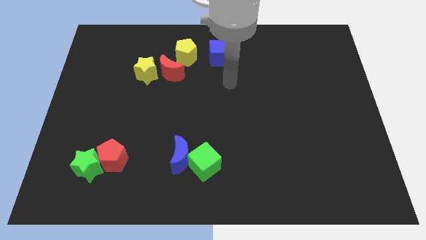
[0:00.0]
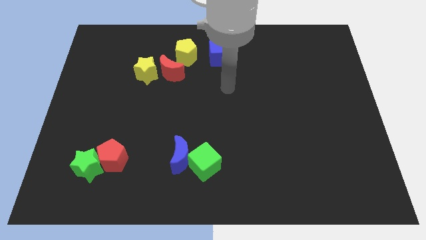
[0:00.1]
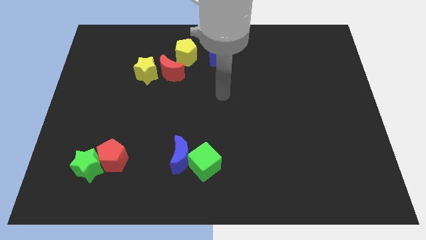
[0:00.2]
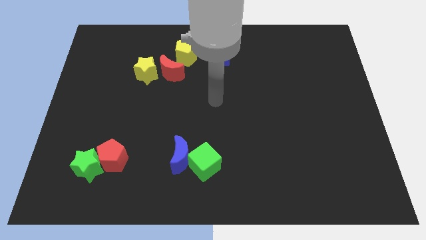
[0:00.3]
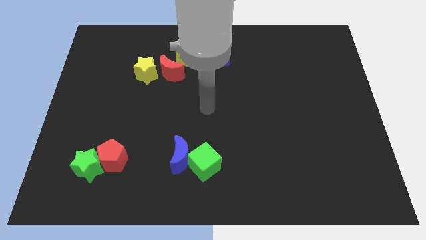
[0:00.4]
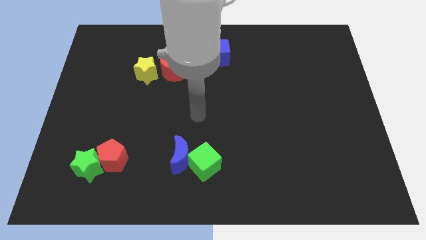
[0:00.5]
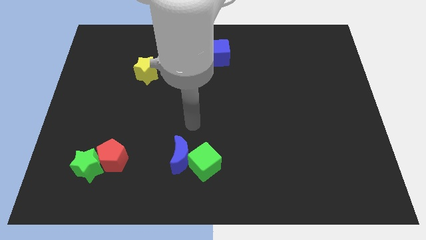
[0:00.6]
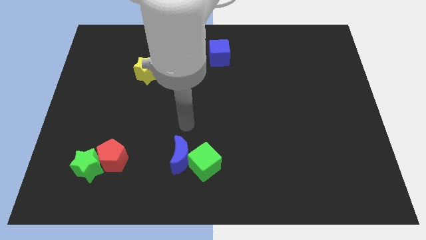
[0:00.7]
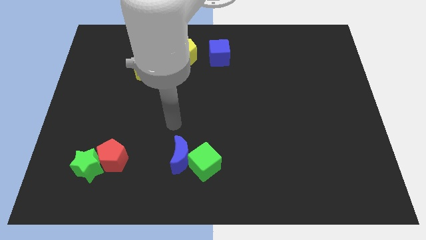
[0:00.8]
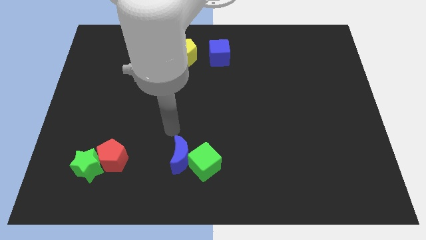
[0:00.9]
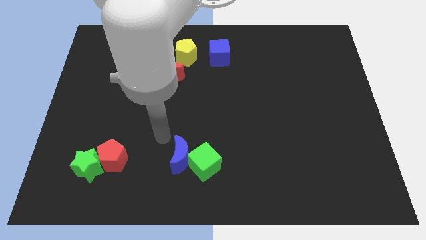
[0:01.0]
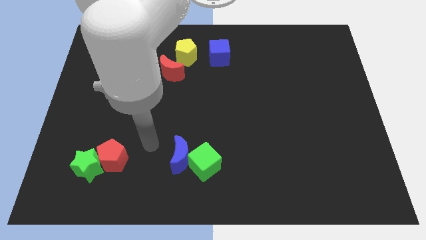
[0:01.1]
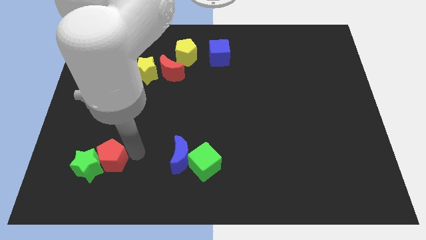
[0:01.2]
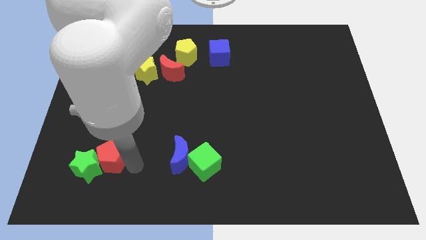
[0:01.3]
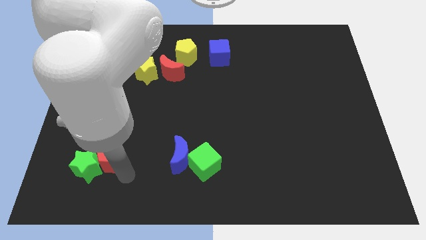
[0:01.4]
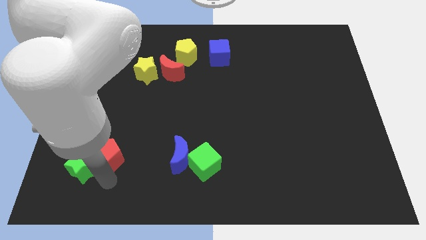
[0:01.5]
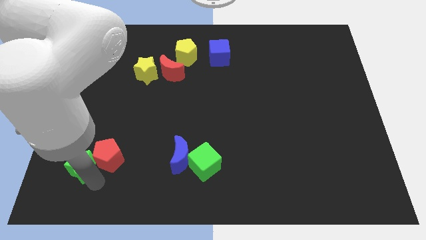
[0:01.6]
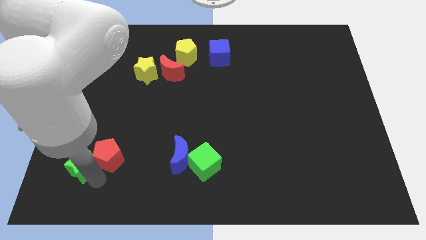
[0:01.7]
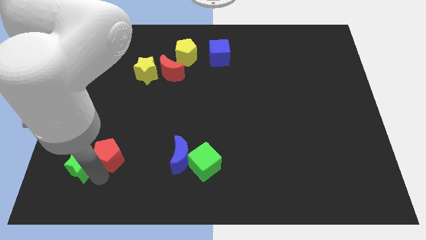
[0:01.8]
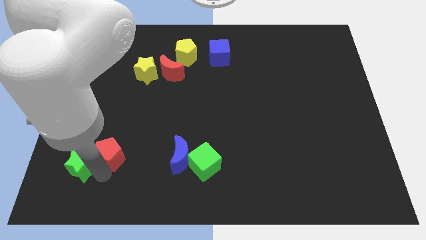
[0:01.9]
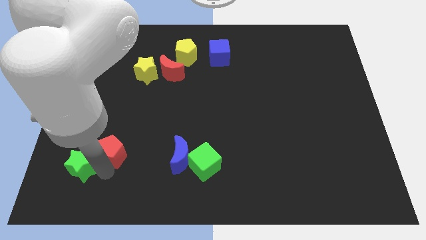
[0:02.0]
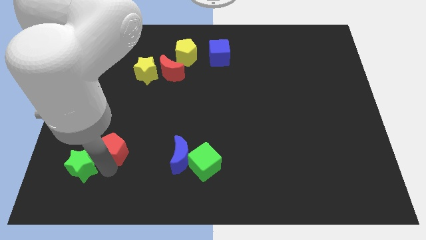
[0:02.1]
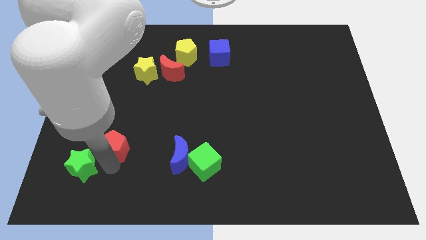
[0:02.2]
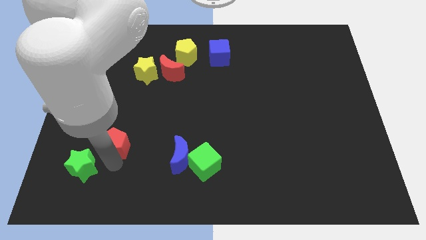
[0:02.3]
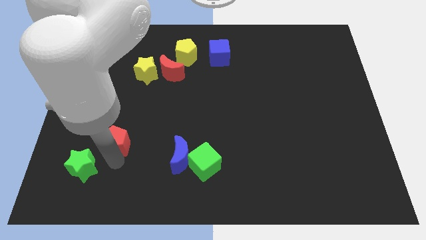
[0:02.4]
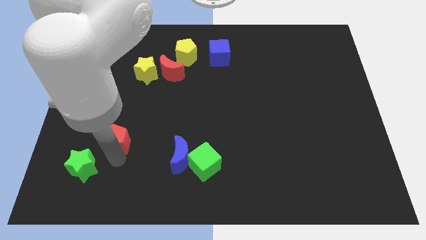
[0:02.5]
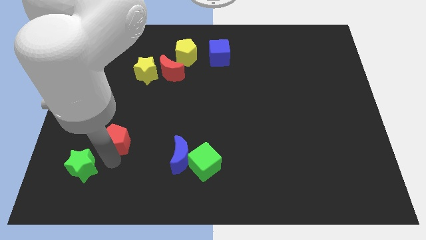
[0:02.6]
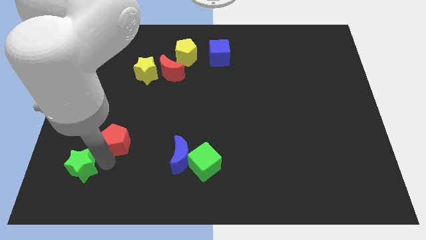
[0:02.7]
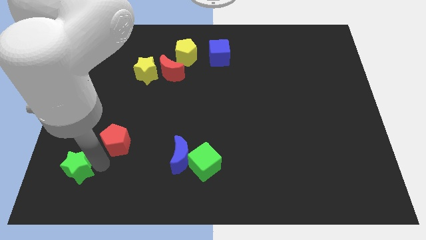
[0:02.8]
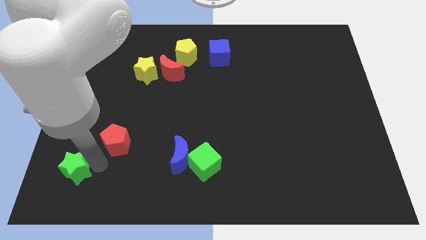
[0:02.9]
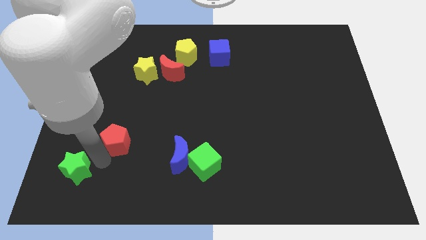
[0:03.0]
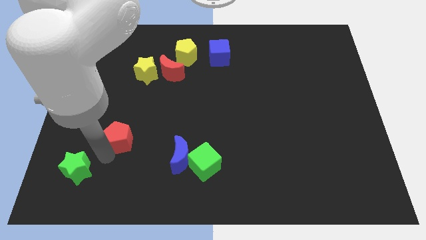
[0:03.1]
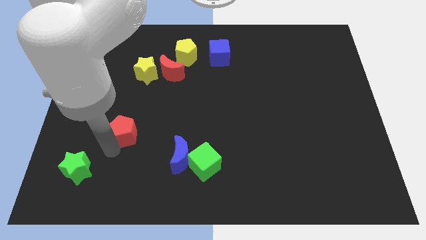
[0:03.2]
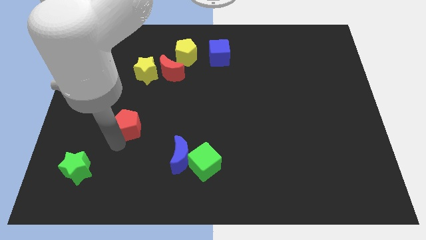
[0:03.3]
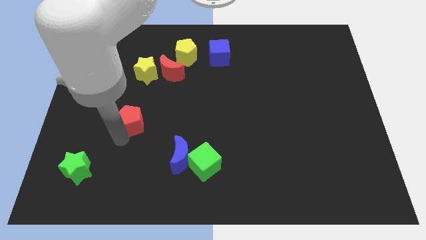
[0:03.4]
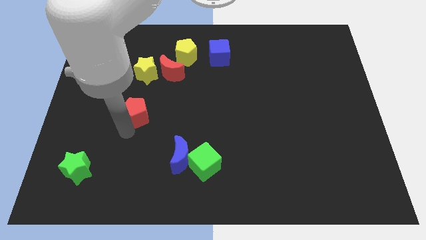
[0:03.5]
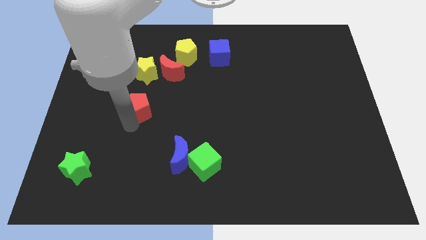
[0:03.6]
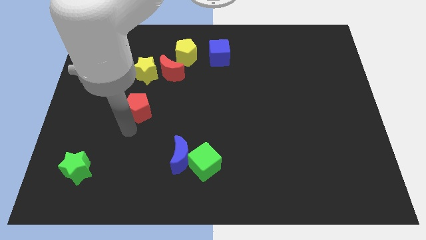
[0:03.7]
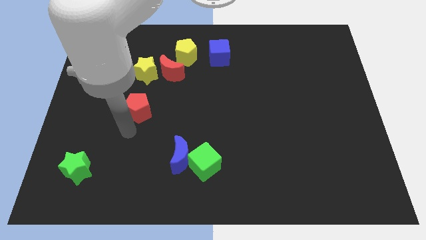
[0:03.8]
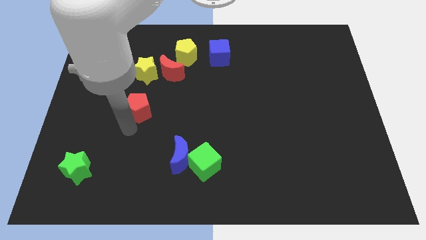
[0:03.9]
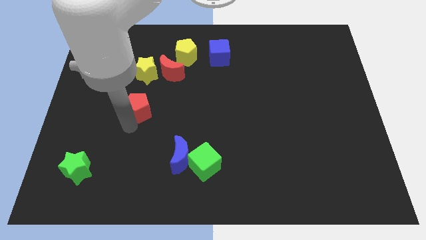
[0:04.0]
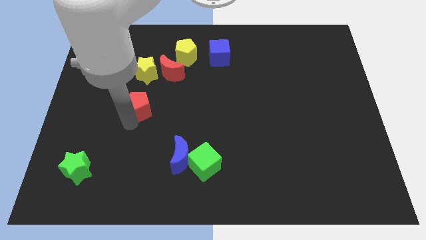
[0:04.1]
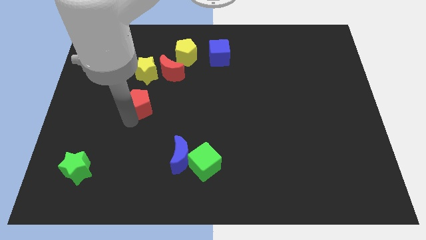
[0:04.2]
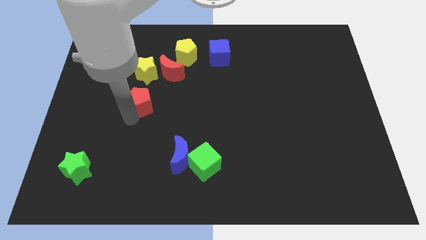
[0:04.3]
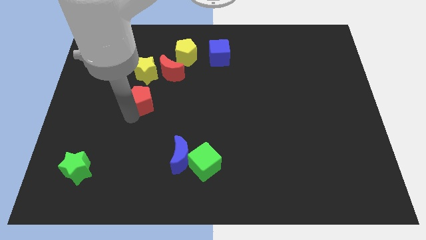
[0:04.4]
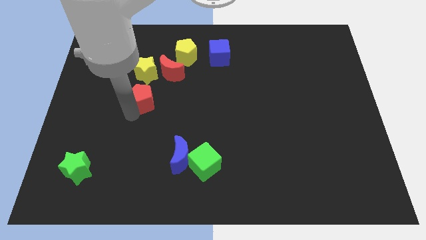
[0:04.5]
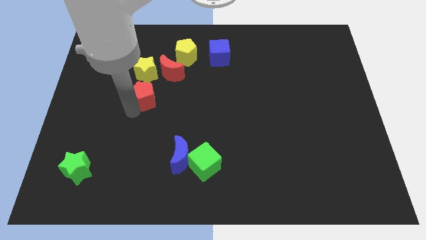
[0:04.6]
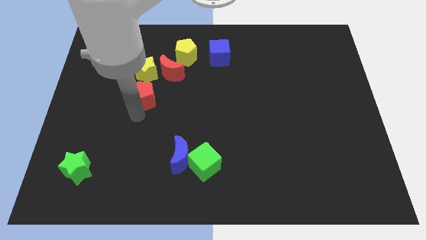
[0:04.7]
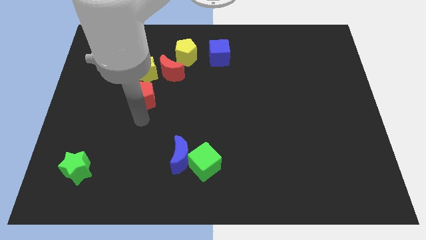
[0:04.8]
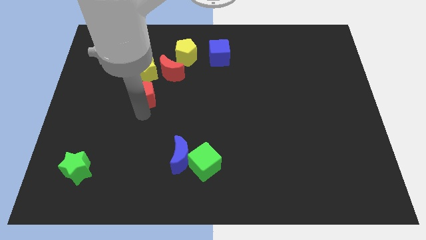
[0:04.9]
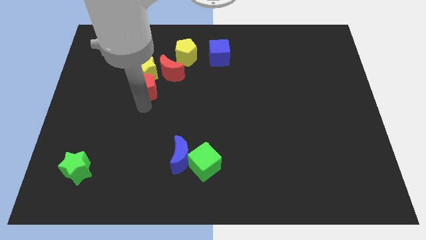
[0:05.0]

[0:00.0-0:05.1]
move the red pentagon towards the yellow star

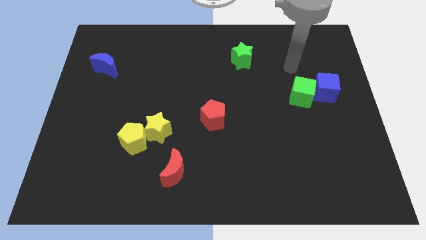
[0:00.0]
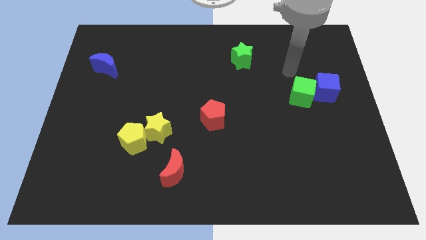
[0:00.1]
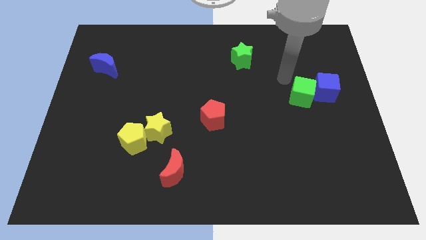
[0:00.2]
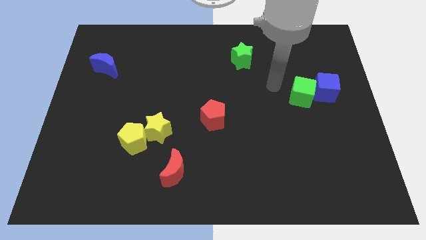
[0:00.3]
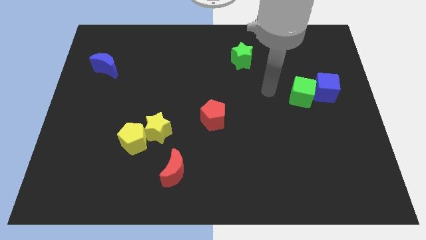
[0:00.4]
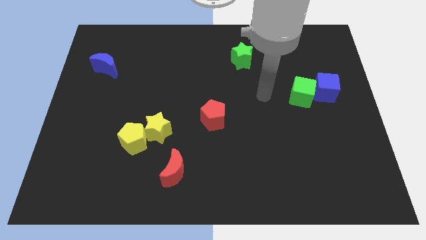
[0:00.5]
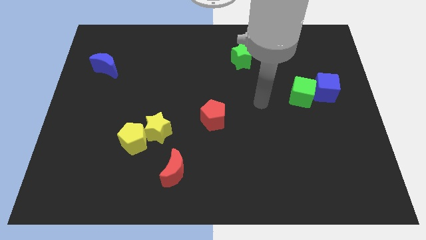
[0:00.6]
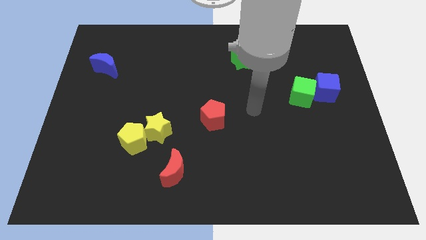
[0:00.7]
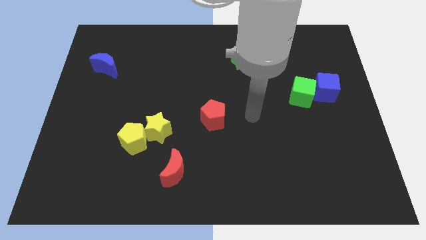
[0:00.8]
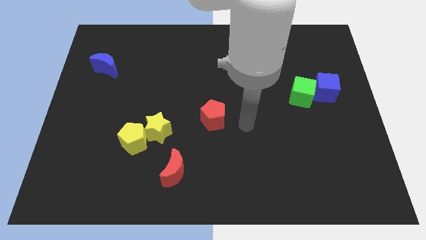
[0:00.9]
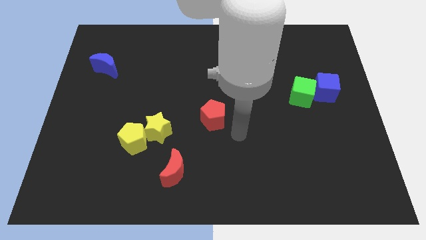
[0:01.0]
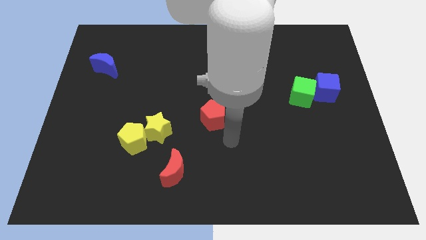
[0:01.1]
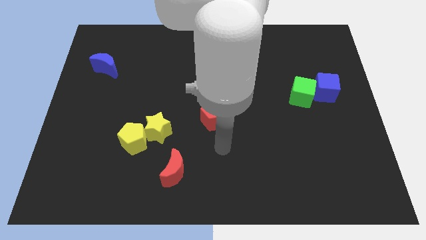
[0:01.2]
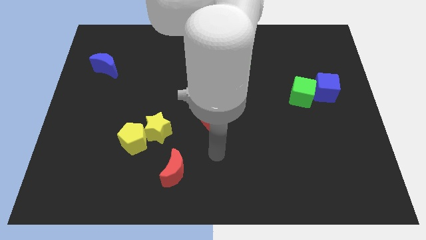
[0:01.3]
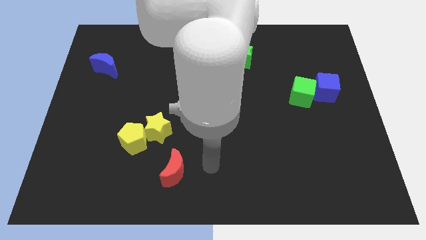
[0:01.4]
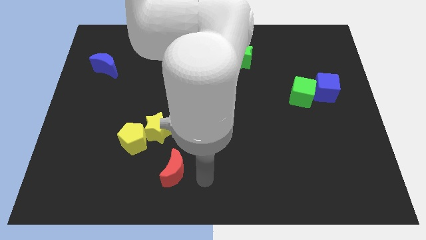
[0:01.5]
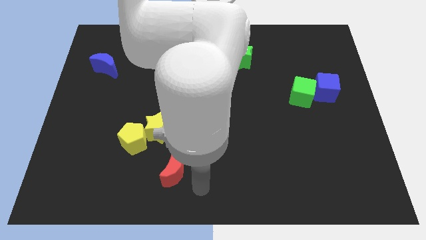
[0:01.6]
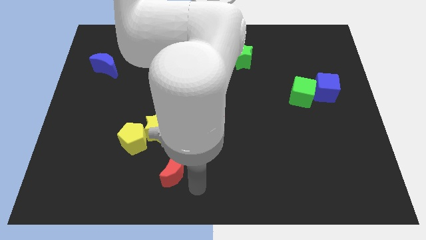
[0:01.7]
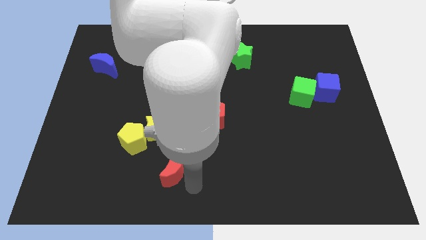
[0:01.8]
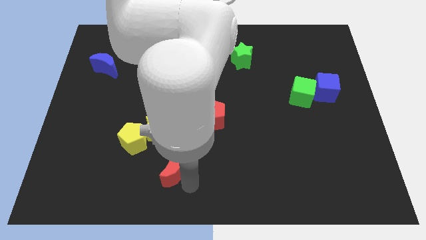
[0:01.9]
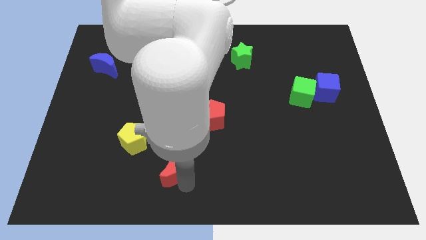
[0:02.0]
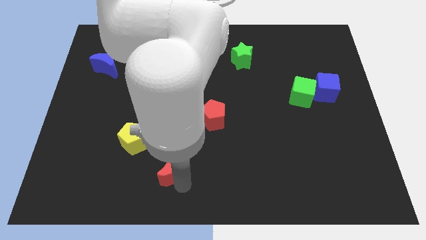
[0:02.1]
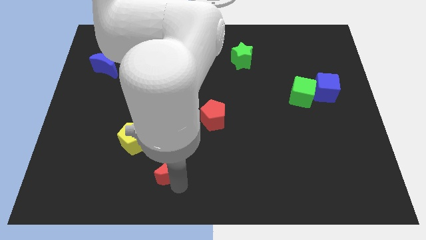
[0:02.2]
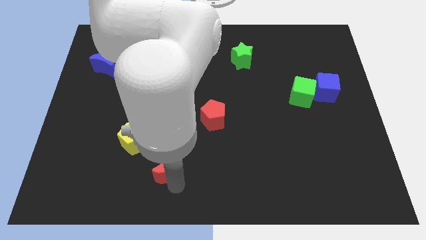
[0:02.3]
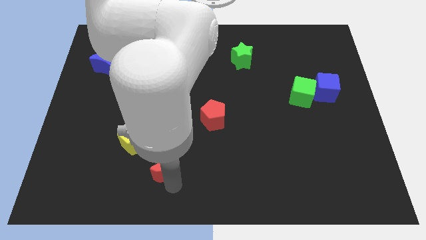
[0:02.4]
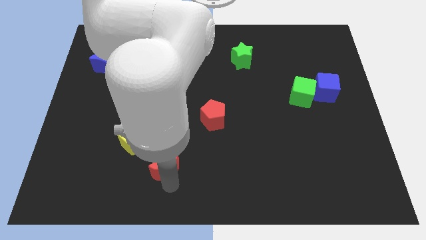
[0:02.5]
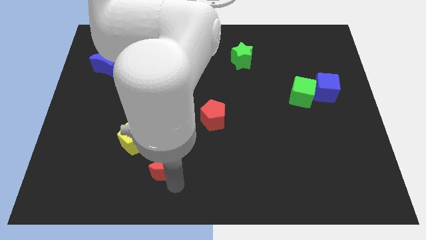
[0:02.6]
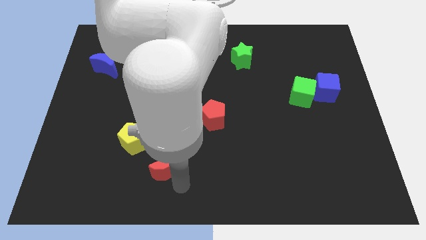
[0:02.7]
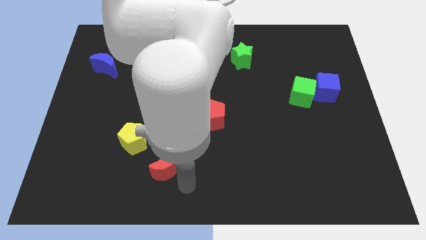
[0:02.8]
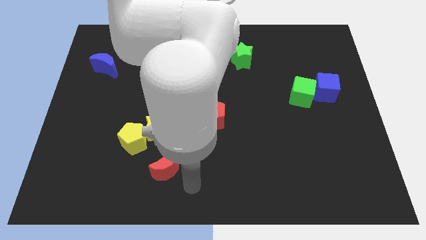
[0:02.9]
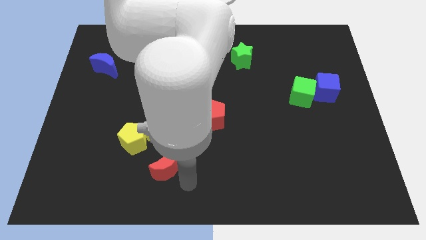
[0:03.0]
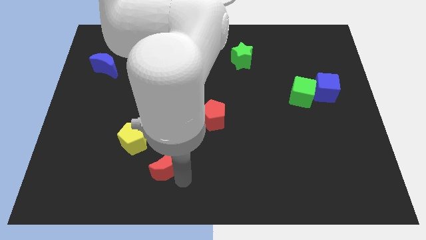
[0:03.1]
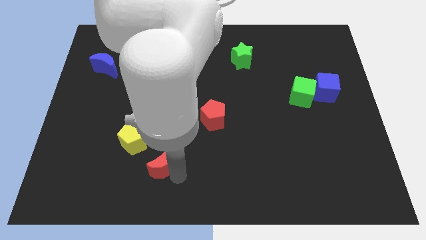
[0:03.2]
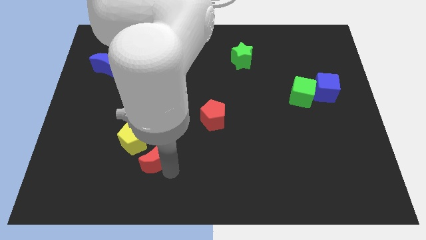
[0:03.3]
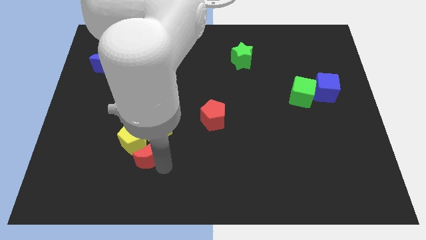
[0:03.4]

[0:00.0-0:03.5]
push the red moon close to the yellow pentagon
